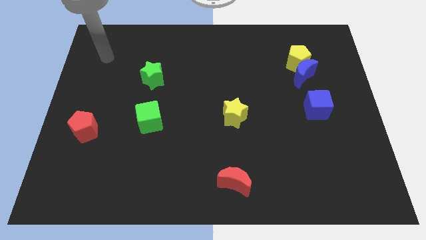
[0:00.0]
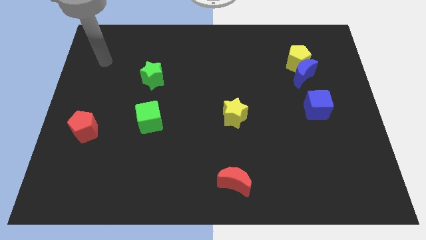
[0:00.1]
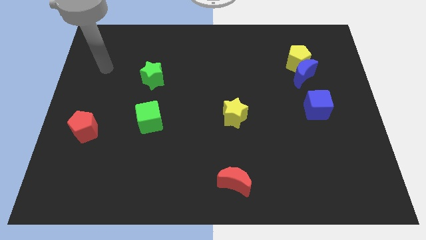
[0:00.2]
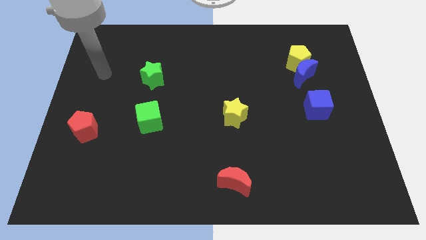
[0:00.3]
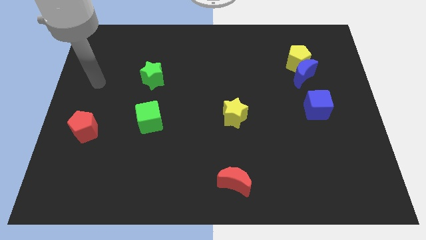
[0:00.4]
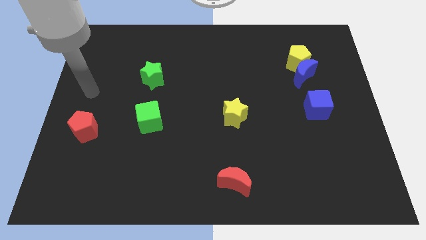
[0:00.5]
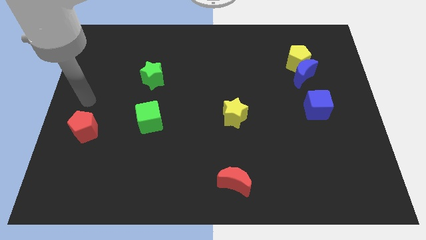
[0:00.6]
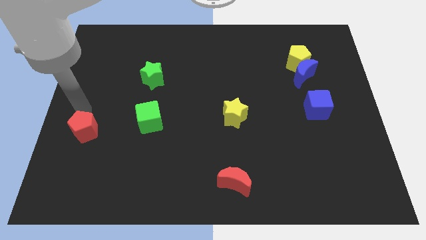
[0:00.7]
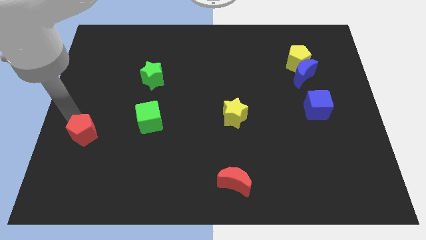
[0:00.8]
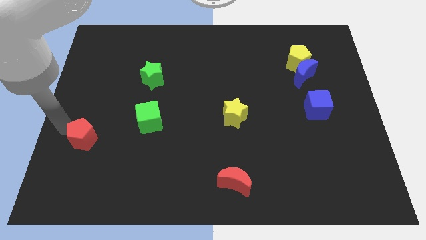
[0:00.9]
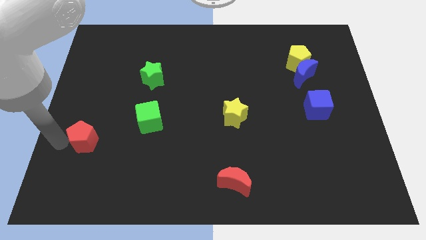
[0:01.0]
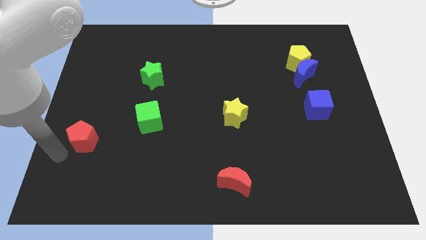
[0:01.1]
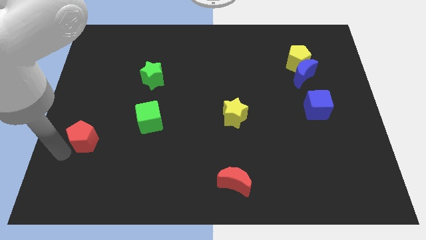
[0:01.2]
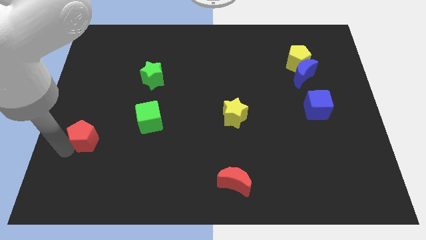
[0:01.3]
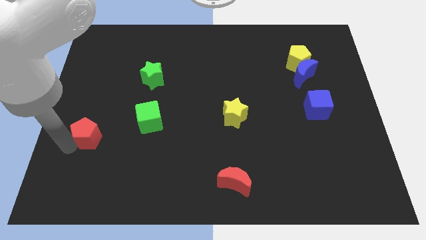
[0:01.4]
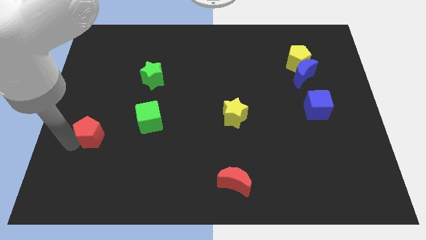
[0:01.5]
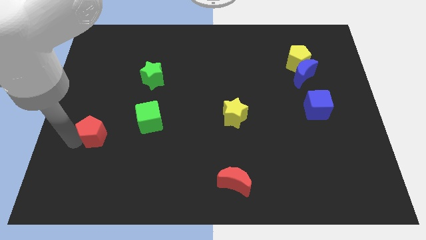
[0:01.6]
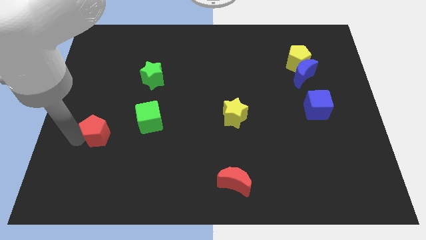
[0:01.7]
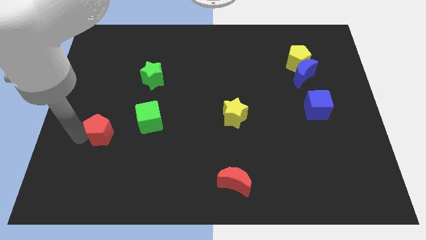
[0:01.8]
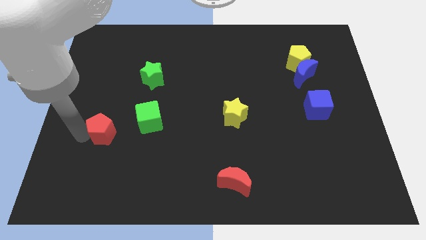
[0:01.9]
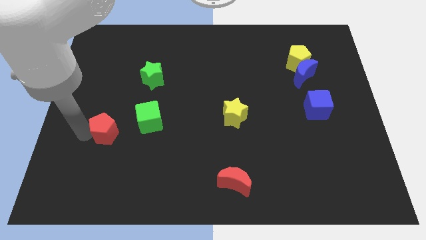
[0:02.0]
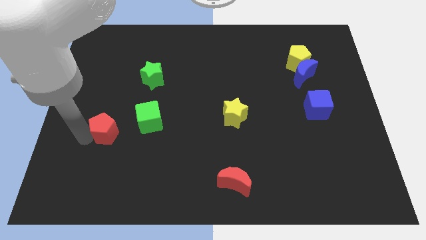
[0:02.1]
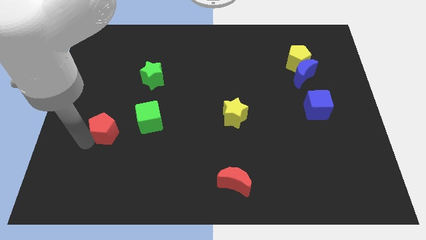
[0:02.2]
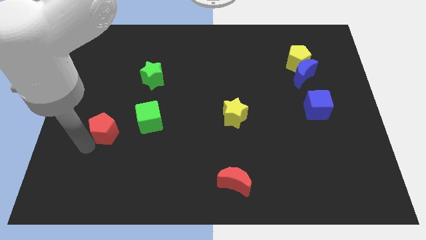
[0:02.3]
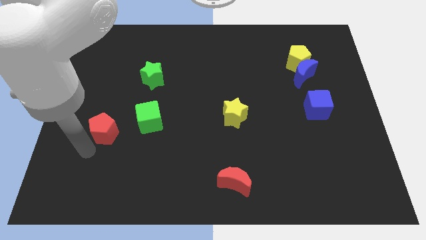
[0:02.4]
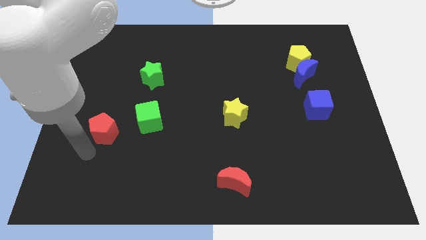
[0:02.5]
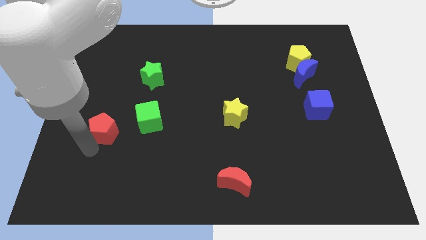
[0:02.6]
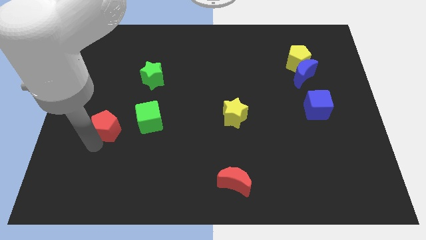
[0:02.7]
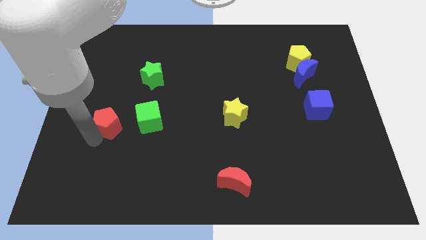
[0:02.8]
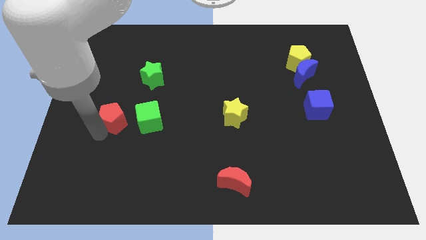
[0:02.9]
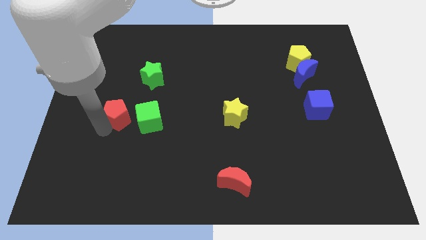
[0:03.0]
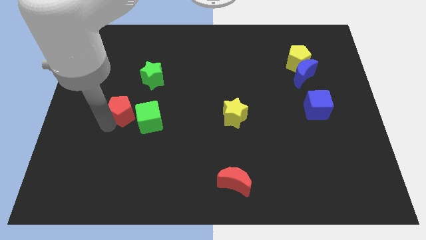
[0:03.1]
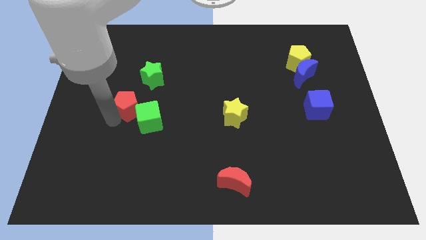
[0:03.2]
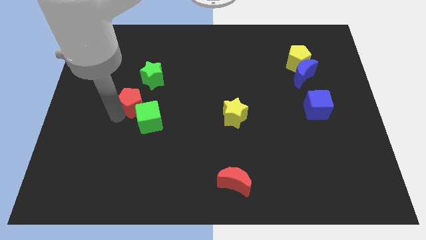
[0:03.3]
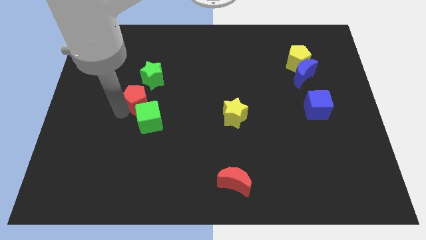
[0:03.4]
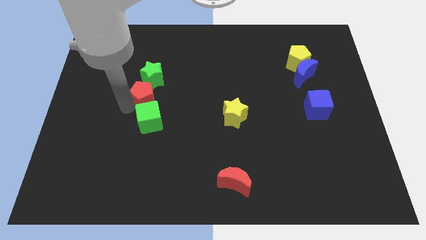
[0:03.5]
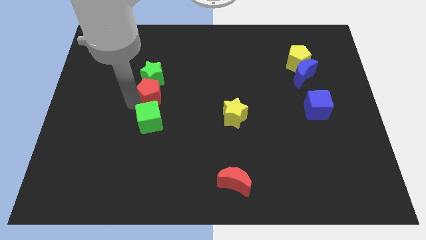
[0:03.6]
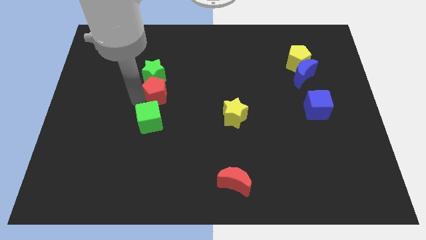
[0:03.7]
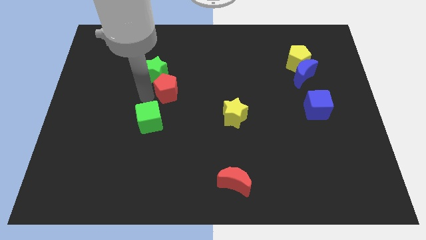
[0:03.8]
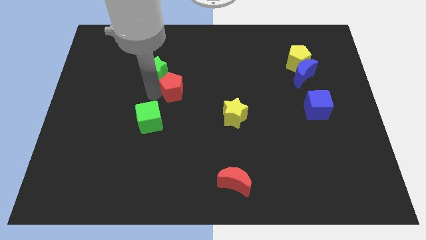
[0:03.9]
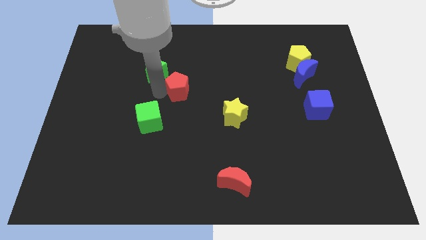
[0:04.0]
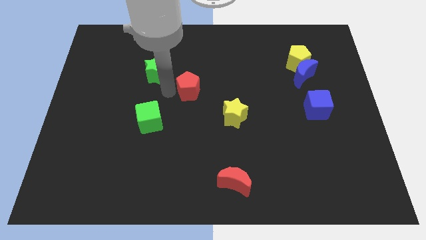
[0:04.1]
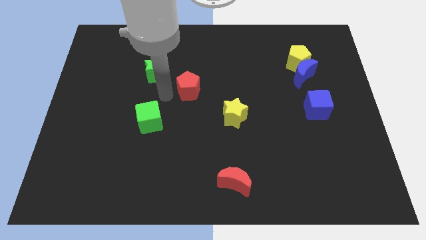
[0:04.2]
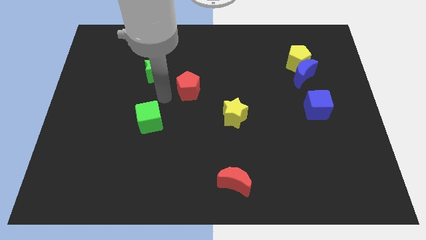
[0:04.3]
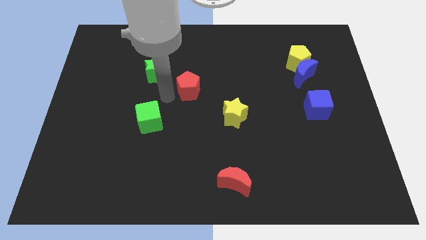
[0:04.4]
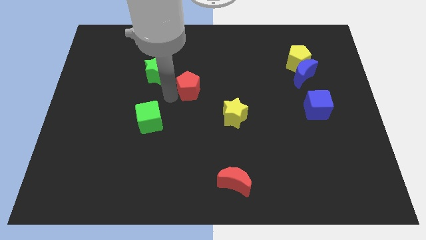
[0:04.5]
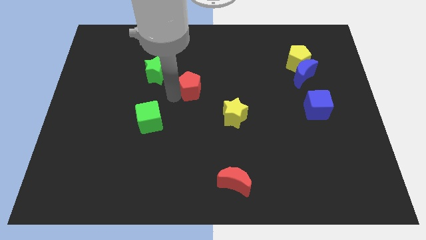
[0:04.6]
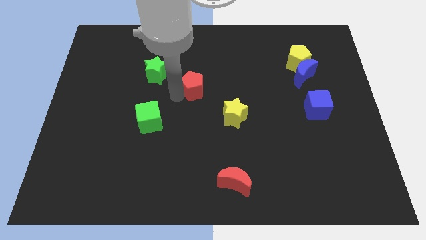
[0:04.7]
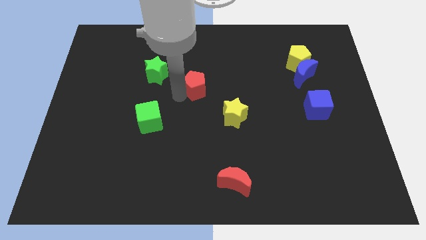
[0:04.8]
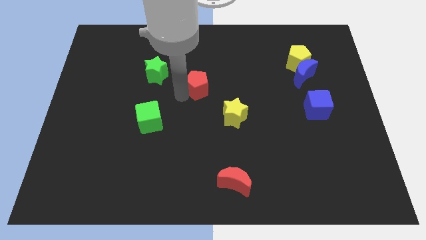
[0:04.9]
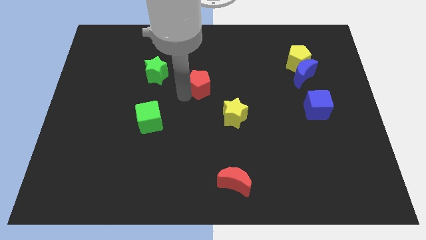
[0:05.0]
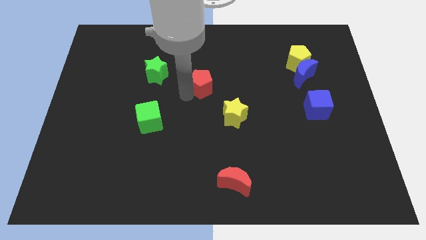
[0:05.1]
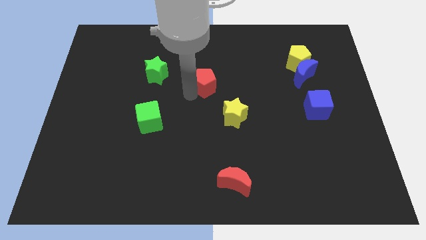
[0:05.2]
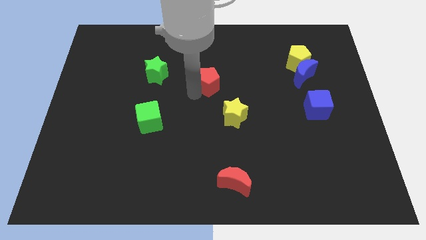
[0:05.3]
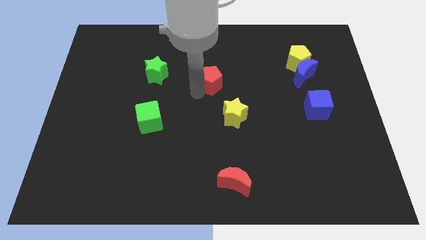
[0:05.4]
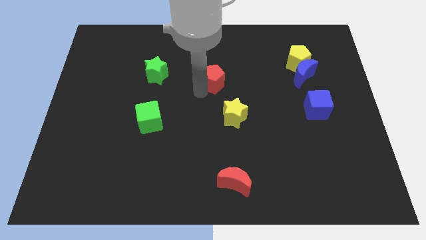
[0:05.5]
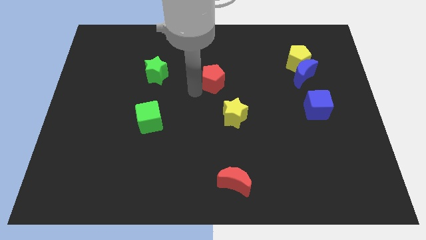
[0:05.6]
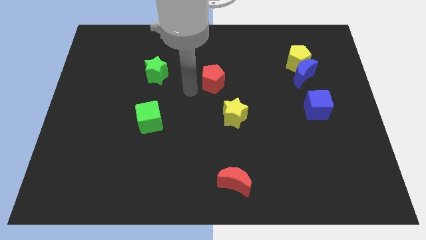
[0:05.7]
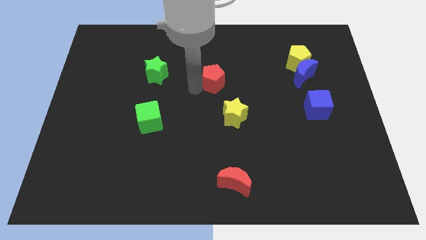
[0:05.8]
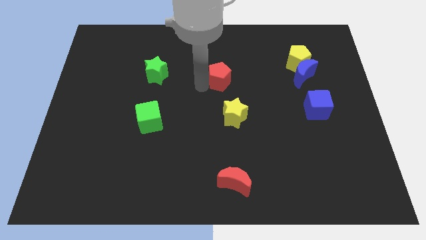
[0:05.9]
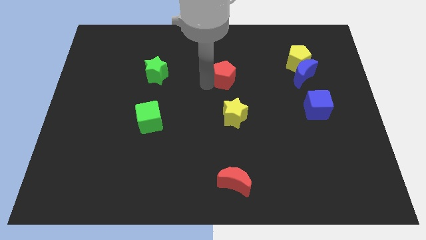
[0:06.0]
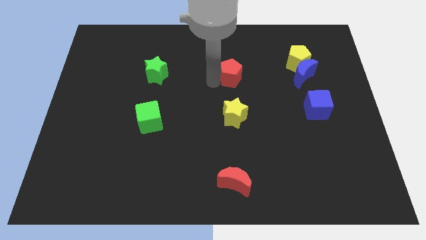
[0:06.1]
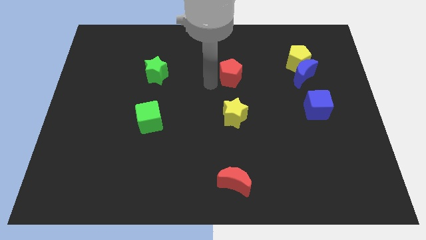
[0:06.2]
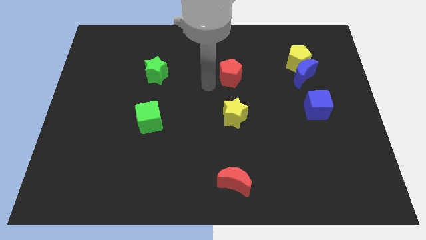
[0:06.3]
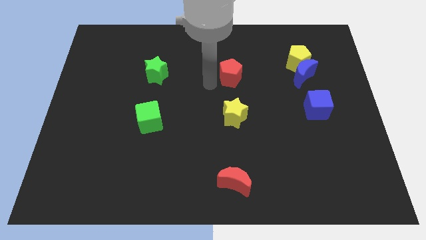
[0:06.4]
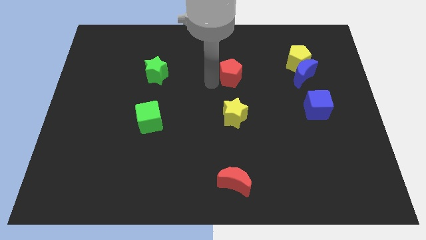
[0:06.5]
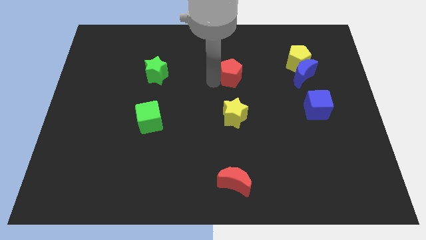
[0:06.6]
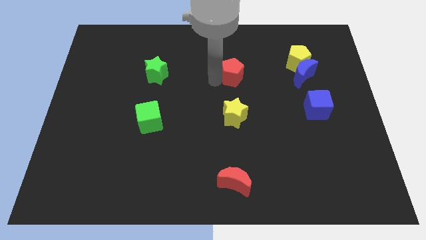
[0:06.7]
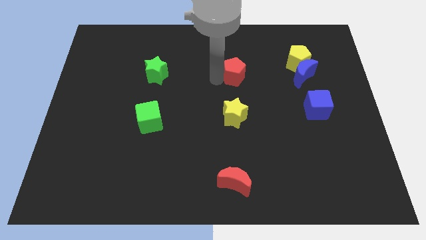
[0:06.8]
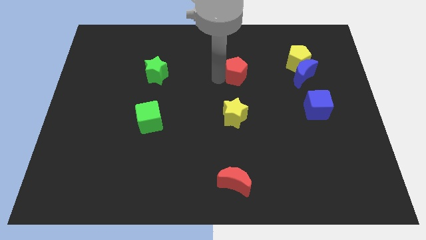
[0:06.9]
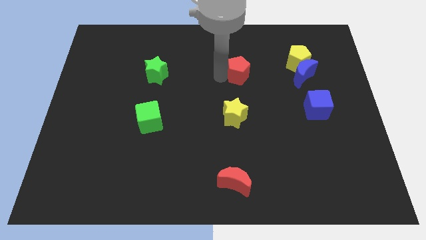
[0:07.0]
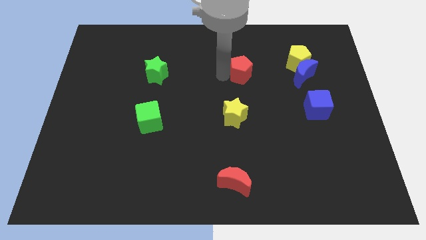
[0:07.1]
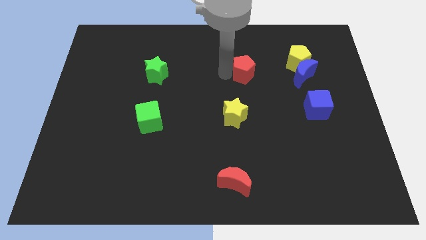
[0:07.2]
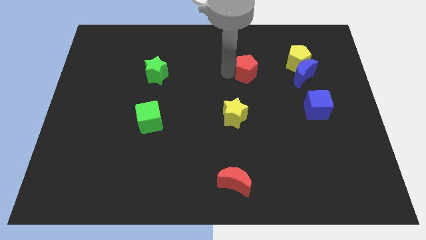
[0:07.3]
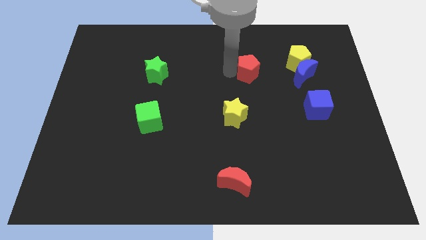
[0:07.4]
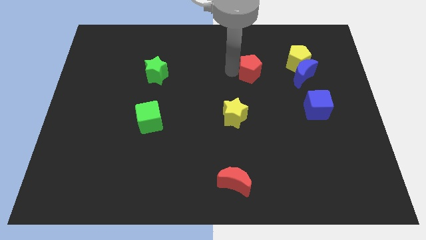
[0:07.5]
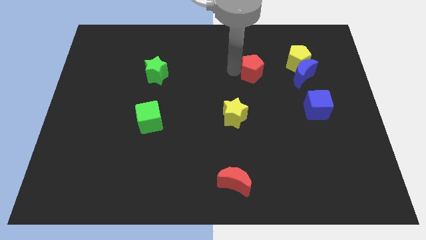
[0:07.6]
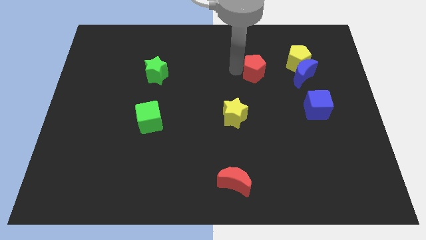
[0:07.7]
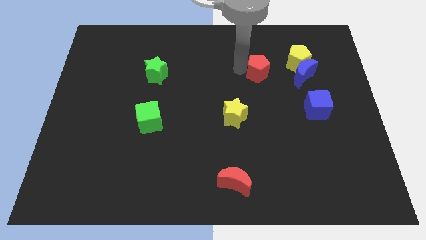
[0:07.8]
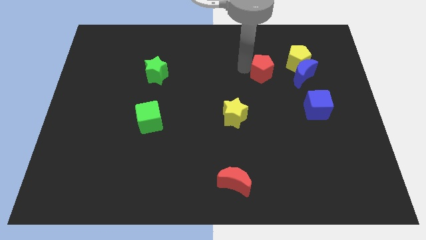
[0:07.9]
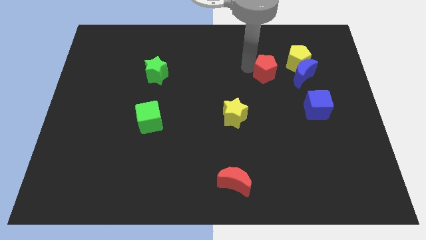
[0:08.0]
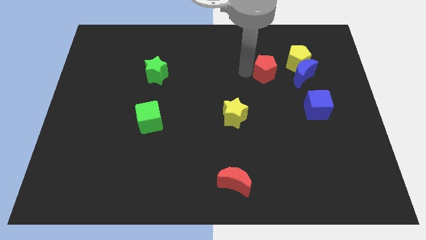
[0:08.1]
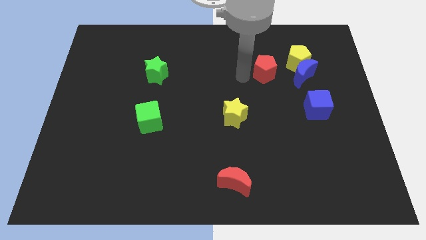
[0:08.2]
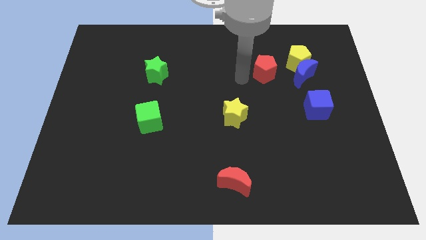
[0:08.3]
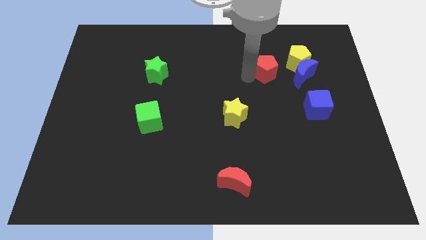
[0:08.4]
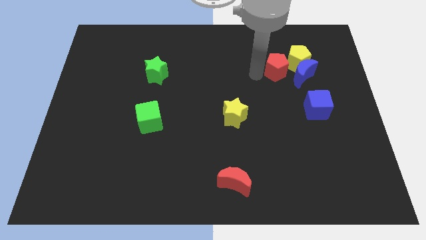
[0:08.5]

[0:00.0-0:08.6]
slide the red pentagon next to the yellow pentagon
